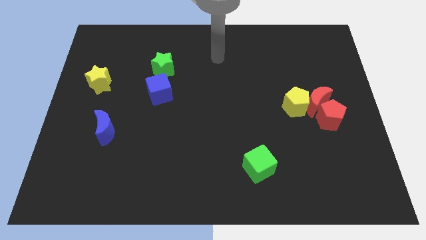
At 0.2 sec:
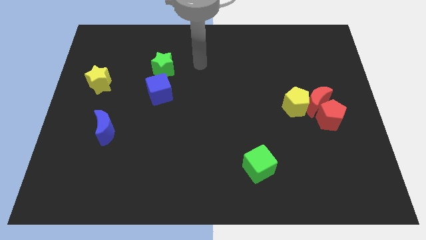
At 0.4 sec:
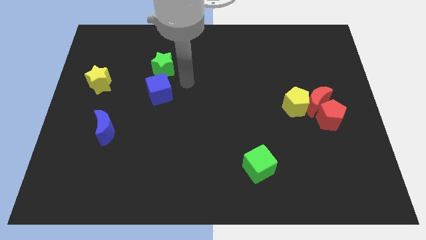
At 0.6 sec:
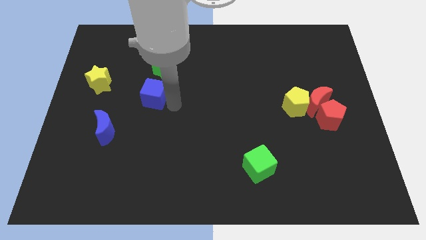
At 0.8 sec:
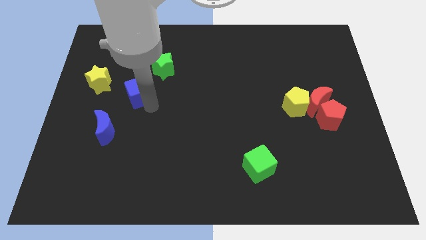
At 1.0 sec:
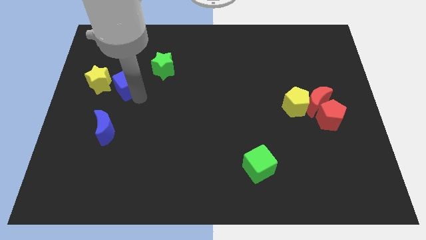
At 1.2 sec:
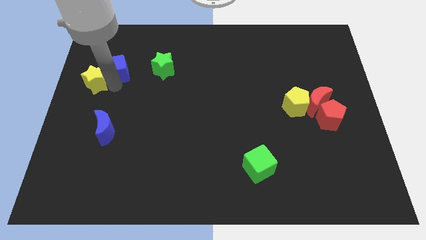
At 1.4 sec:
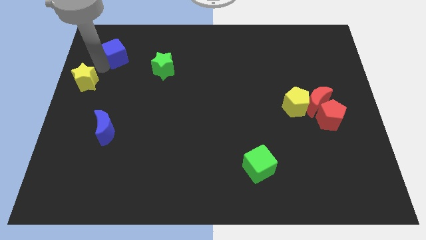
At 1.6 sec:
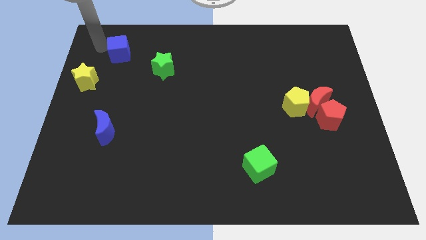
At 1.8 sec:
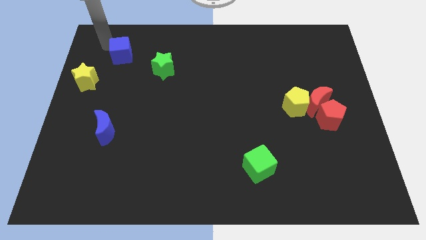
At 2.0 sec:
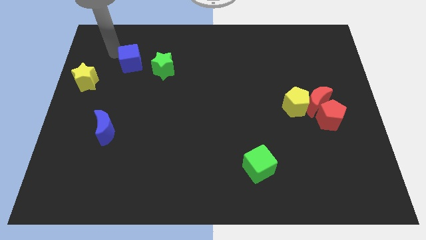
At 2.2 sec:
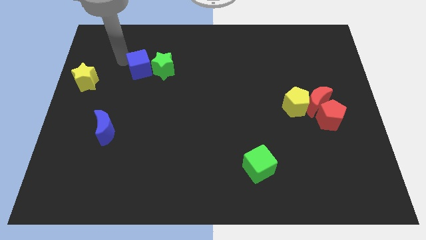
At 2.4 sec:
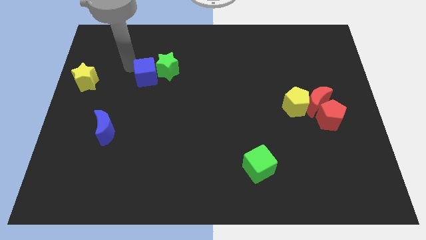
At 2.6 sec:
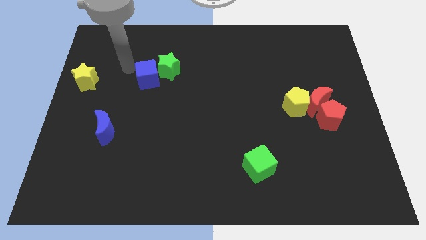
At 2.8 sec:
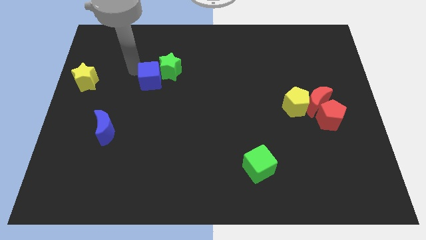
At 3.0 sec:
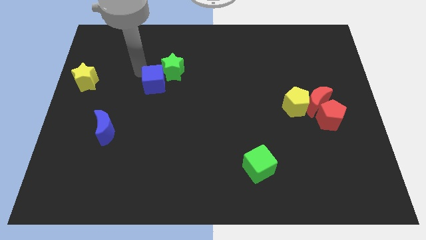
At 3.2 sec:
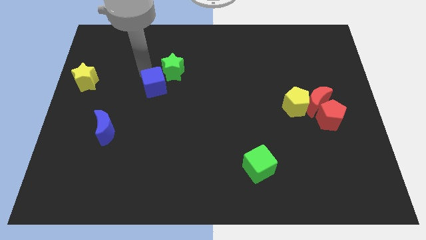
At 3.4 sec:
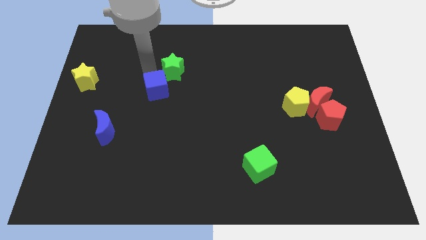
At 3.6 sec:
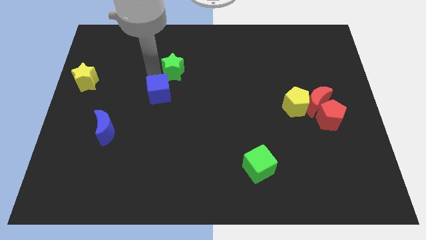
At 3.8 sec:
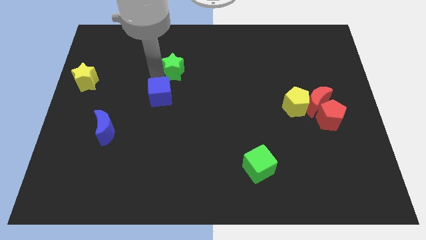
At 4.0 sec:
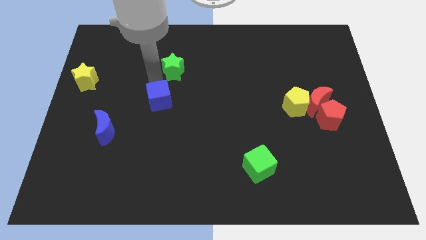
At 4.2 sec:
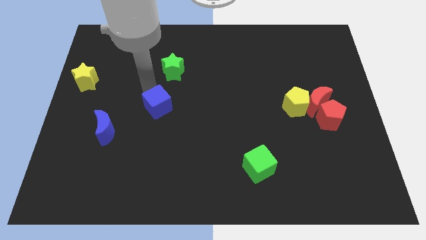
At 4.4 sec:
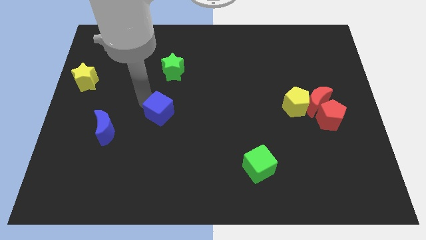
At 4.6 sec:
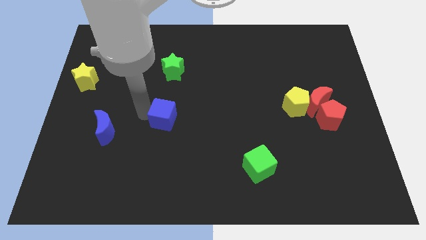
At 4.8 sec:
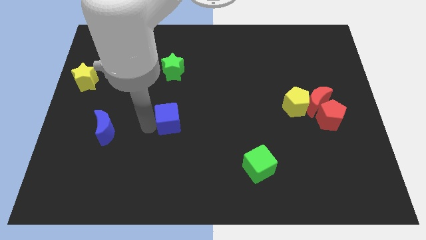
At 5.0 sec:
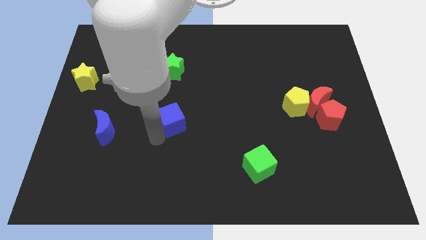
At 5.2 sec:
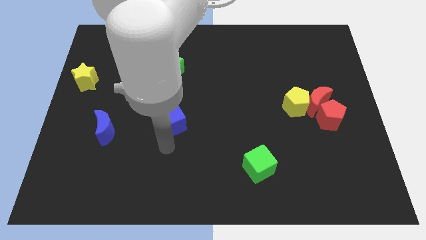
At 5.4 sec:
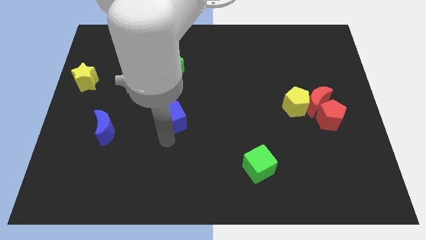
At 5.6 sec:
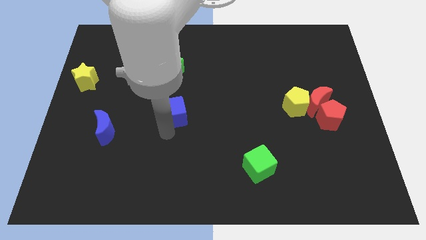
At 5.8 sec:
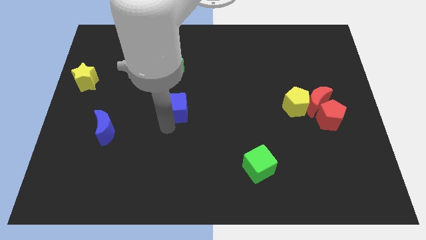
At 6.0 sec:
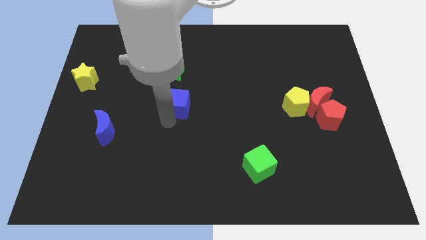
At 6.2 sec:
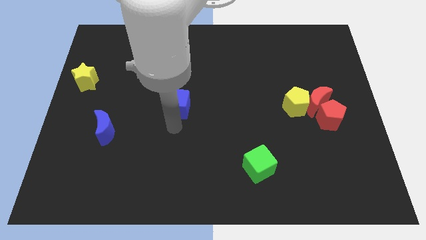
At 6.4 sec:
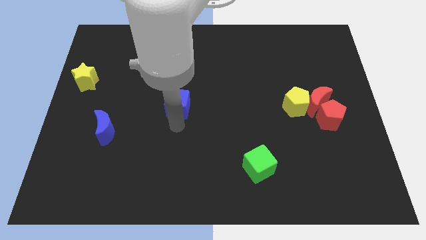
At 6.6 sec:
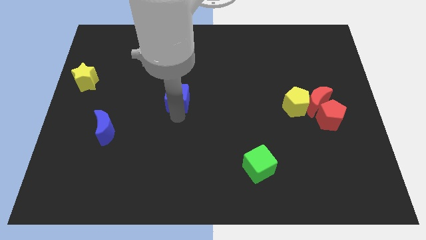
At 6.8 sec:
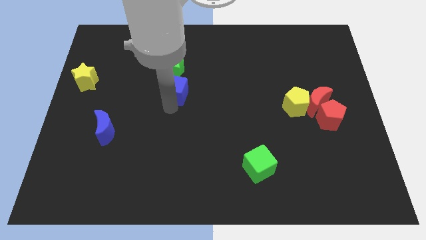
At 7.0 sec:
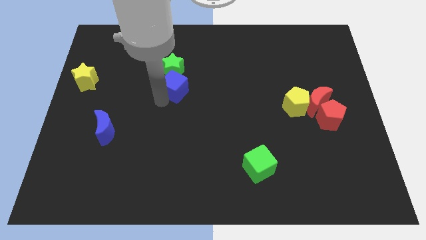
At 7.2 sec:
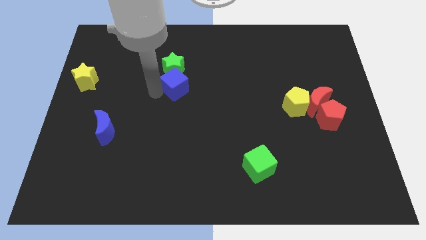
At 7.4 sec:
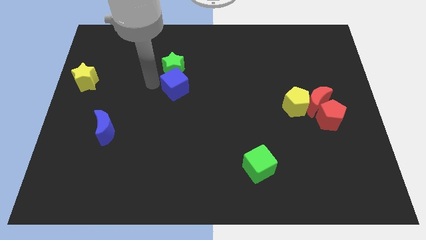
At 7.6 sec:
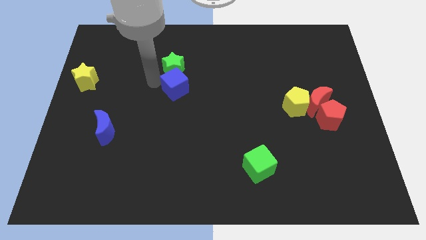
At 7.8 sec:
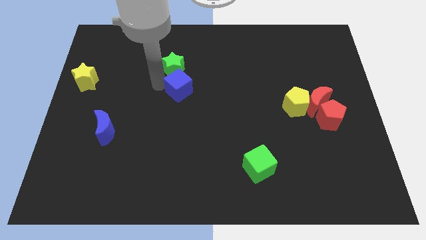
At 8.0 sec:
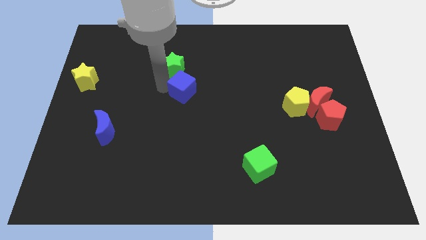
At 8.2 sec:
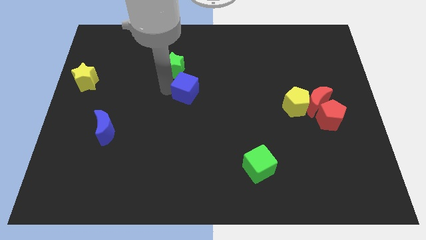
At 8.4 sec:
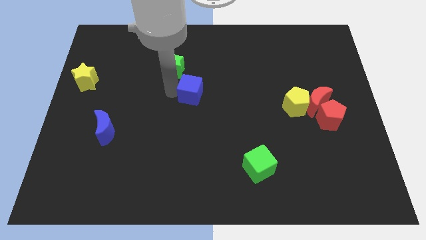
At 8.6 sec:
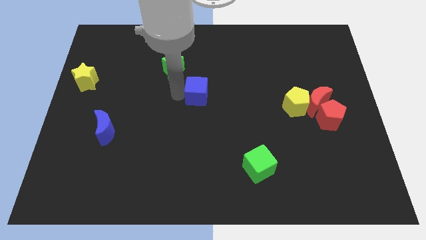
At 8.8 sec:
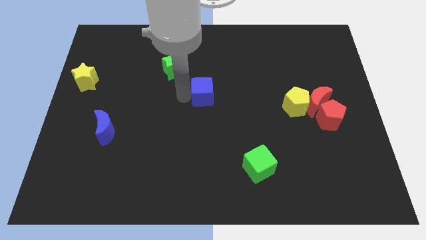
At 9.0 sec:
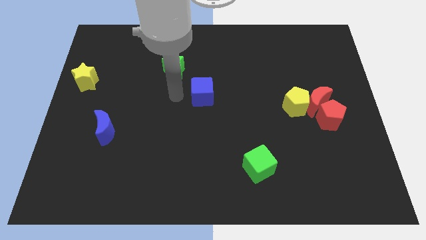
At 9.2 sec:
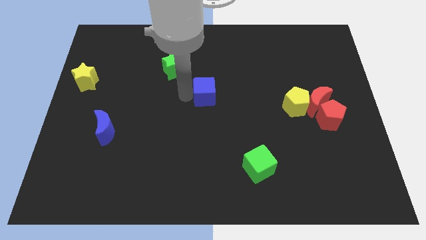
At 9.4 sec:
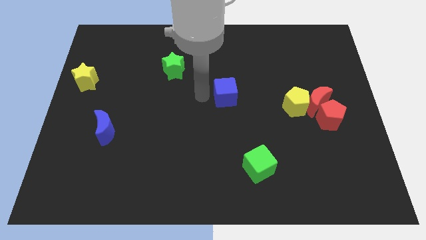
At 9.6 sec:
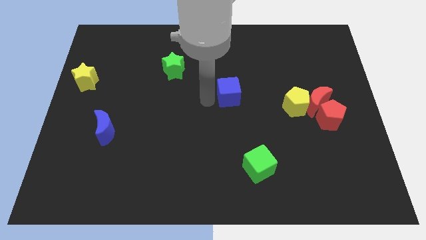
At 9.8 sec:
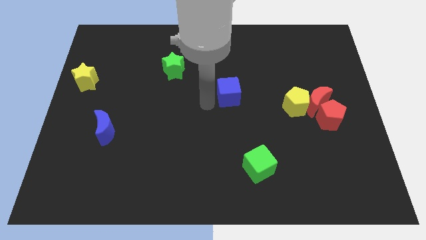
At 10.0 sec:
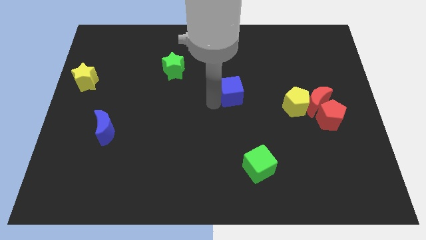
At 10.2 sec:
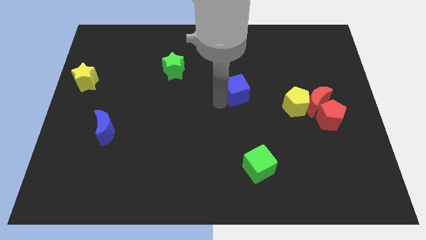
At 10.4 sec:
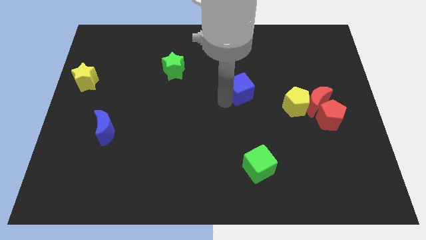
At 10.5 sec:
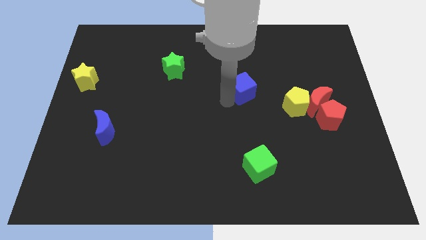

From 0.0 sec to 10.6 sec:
move the blue cube to the right

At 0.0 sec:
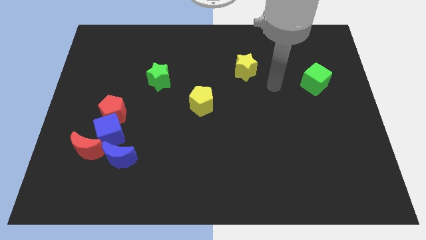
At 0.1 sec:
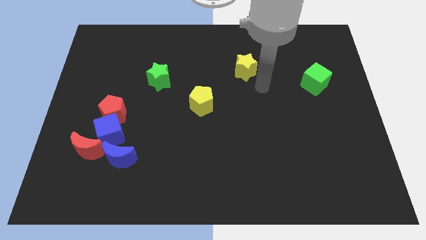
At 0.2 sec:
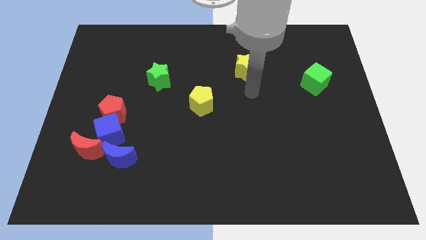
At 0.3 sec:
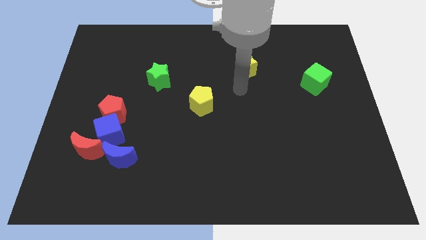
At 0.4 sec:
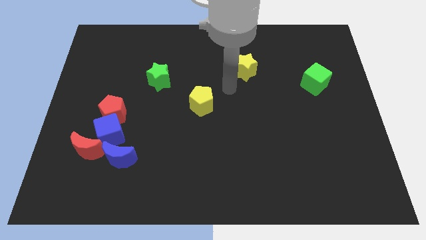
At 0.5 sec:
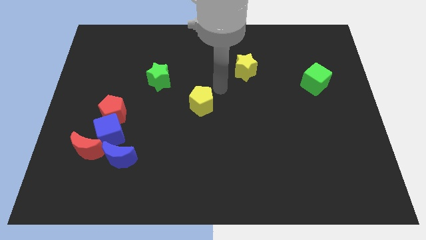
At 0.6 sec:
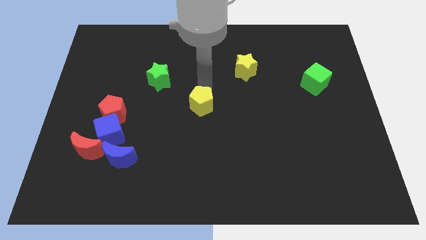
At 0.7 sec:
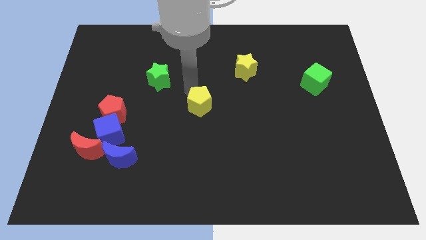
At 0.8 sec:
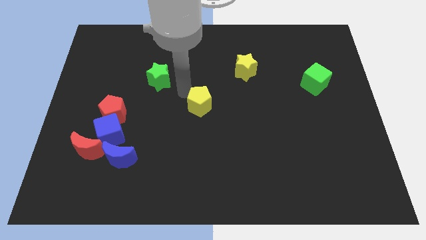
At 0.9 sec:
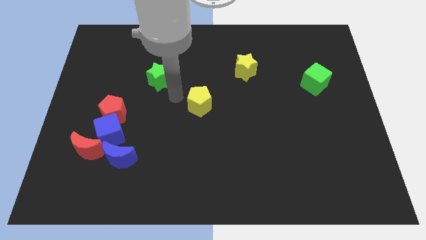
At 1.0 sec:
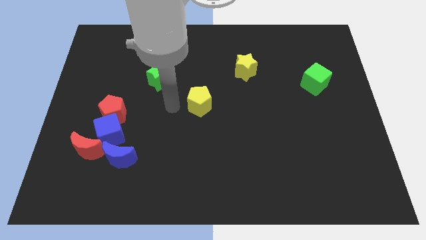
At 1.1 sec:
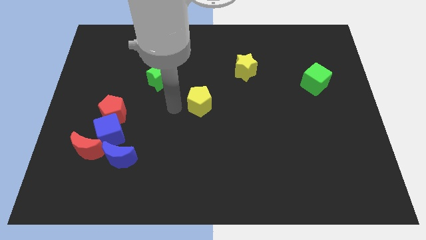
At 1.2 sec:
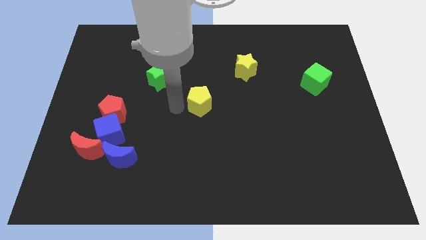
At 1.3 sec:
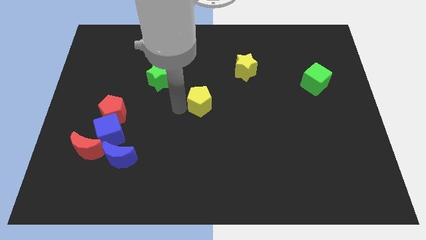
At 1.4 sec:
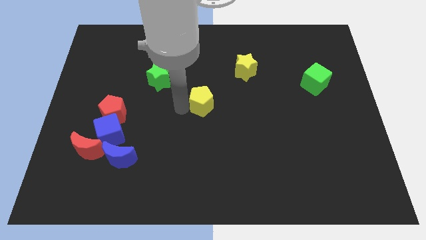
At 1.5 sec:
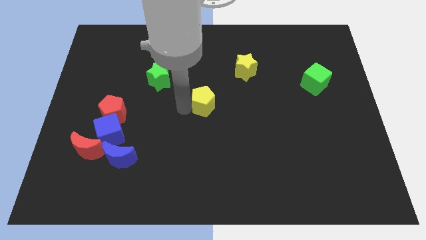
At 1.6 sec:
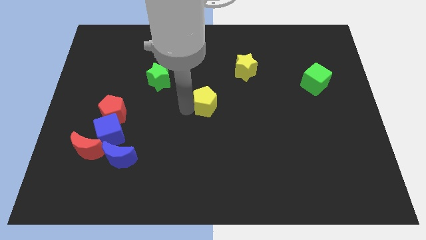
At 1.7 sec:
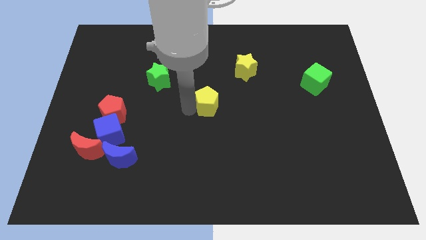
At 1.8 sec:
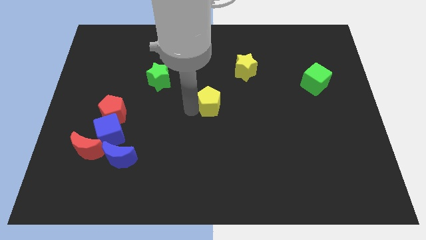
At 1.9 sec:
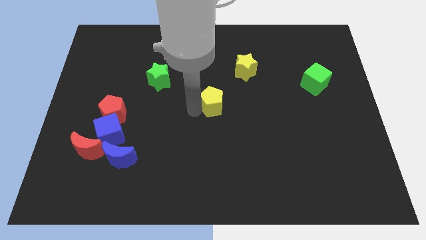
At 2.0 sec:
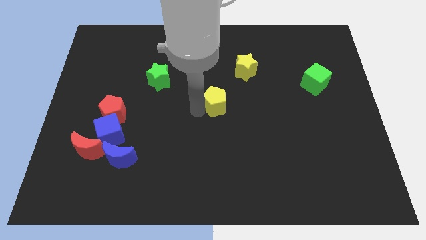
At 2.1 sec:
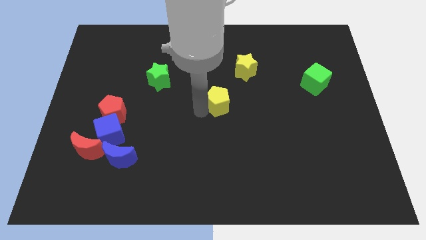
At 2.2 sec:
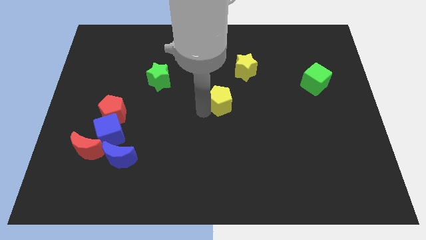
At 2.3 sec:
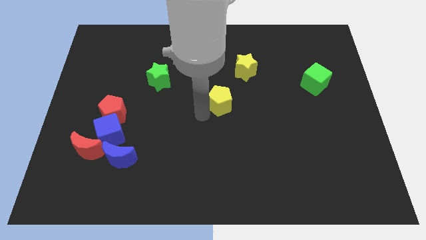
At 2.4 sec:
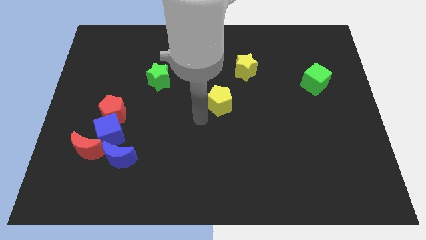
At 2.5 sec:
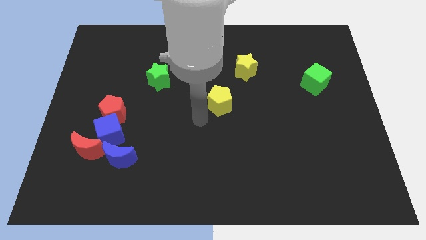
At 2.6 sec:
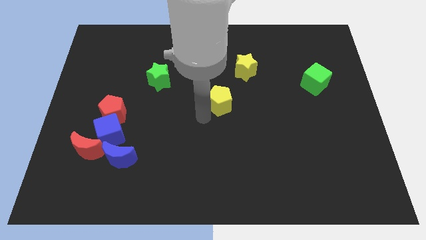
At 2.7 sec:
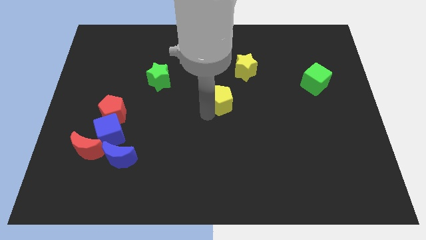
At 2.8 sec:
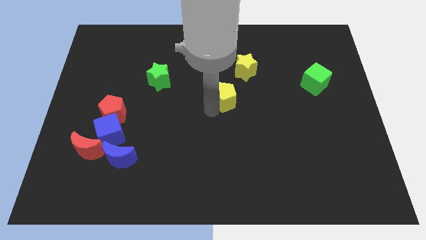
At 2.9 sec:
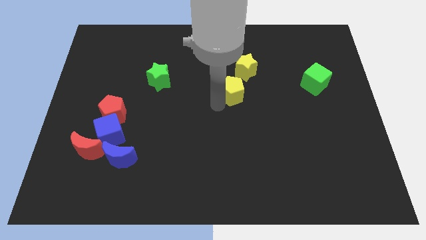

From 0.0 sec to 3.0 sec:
slide the yellow pentagon somewhat diagonally upwards and to the right
